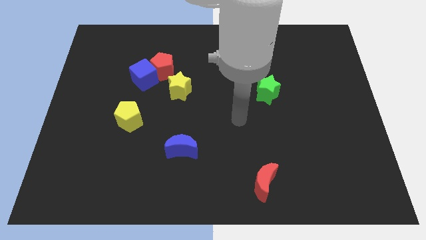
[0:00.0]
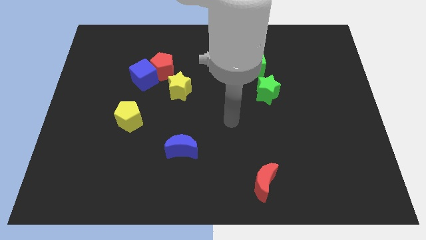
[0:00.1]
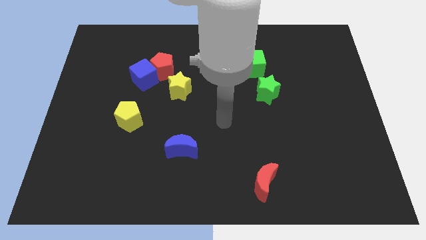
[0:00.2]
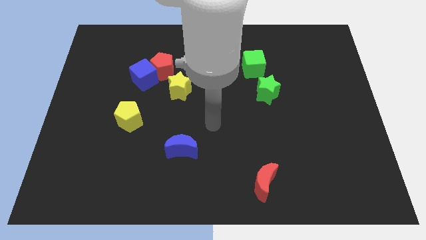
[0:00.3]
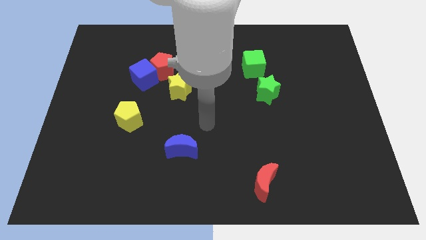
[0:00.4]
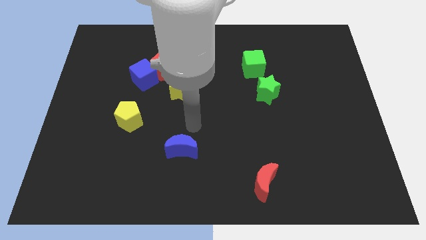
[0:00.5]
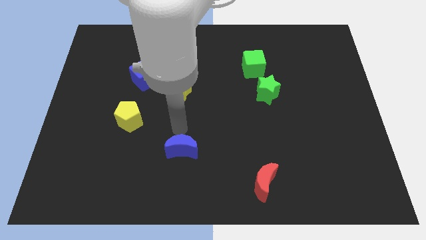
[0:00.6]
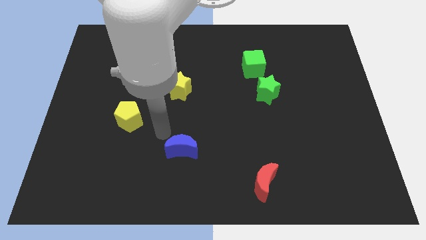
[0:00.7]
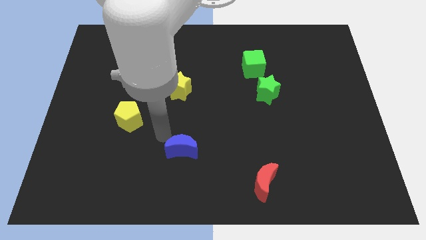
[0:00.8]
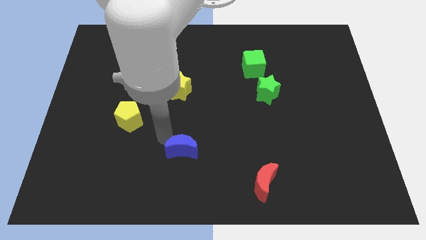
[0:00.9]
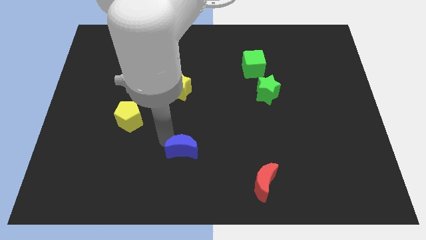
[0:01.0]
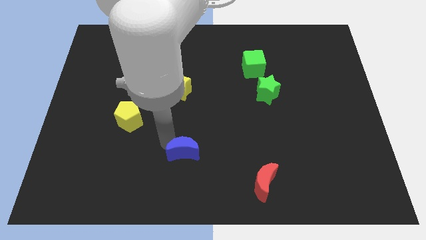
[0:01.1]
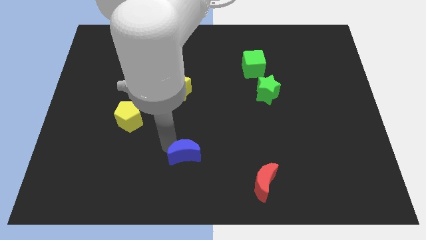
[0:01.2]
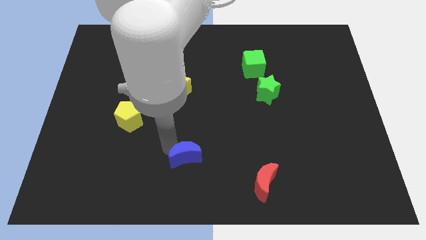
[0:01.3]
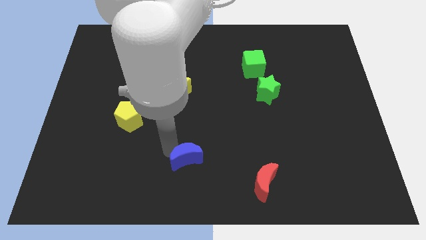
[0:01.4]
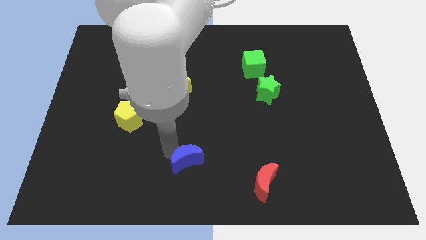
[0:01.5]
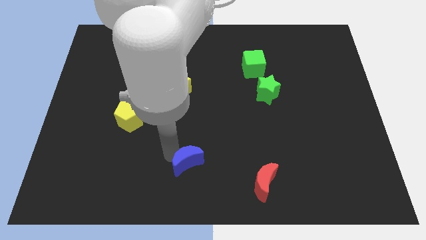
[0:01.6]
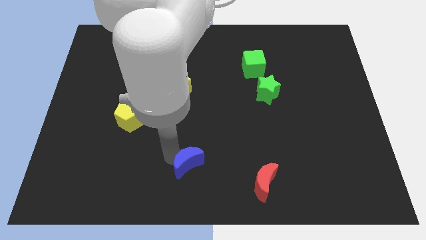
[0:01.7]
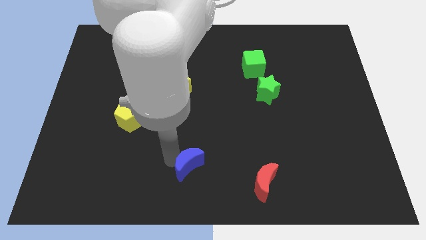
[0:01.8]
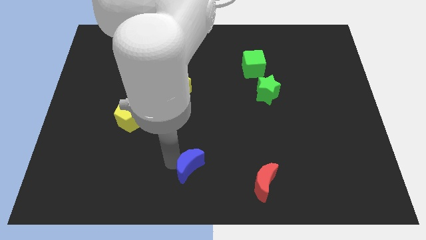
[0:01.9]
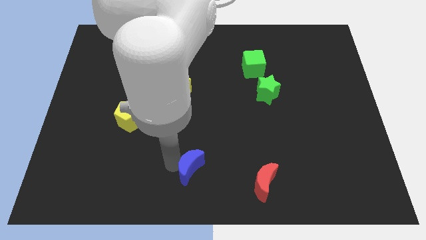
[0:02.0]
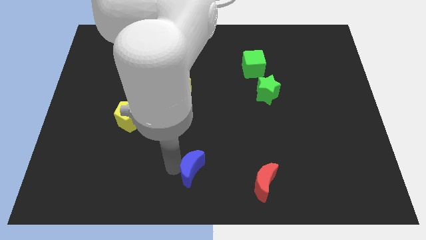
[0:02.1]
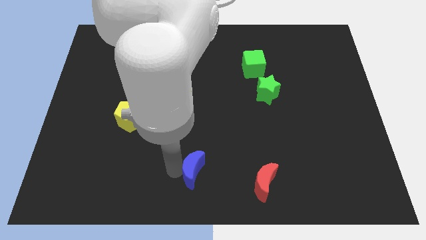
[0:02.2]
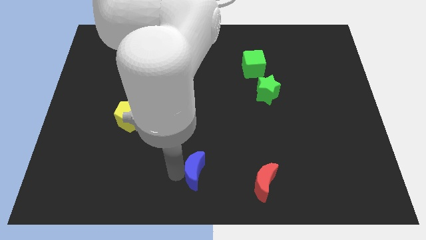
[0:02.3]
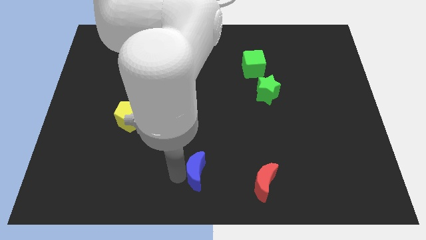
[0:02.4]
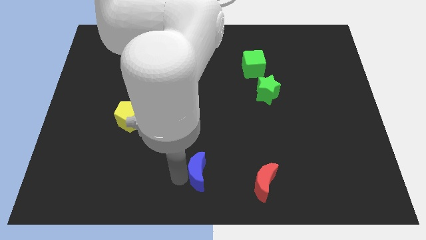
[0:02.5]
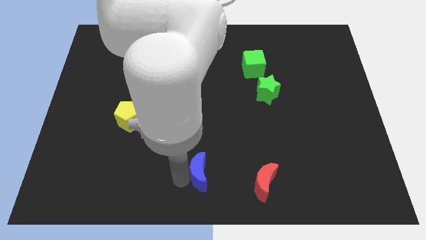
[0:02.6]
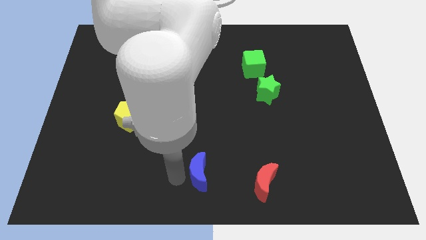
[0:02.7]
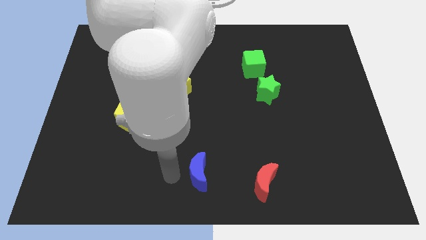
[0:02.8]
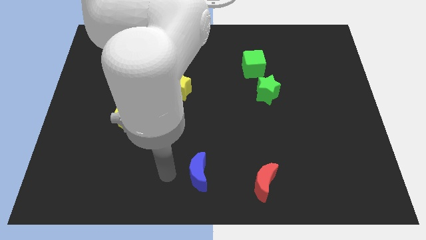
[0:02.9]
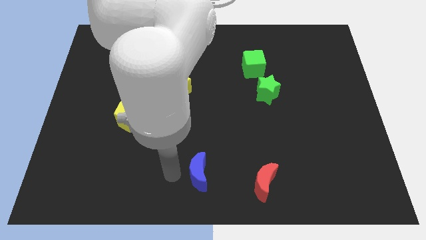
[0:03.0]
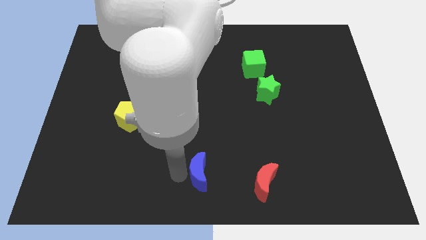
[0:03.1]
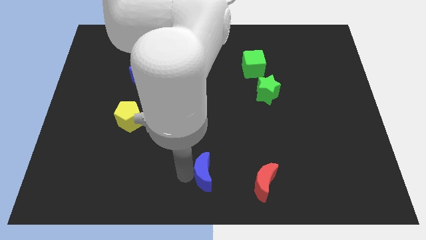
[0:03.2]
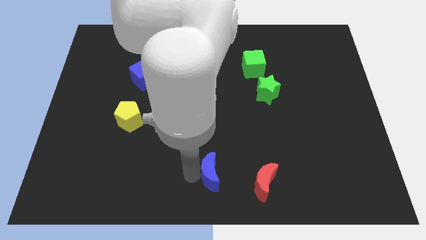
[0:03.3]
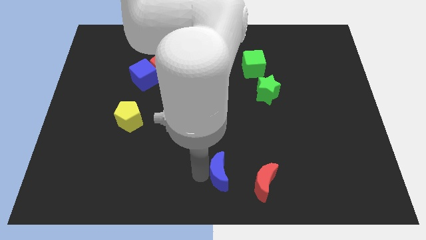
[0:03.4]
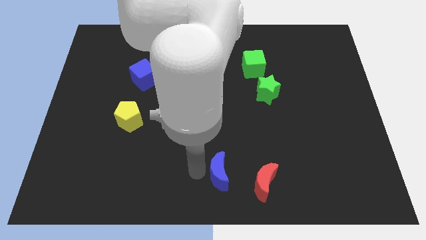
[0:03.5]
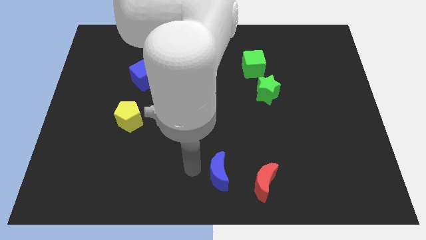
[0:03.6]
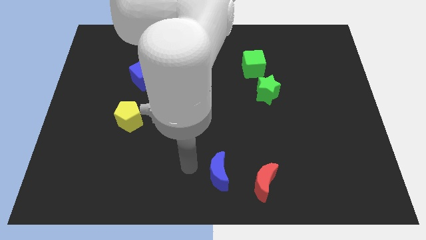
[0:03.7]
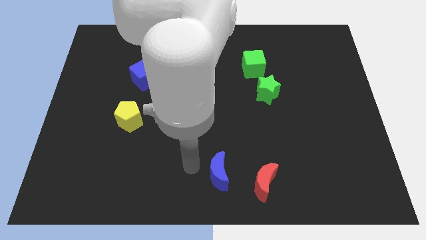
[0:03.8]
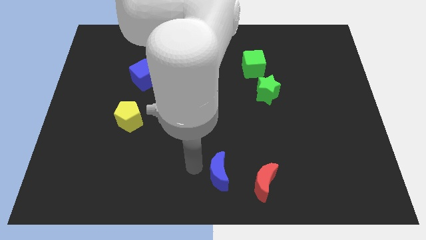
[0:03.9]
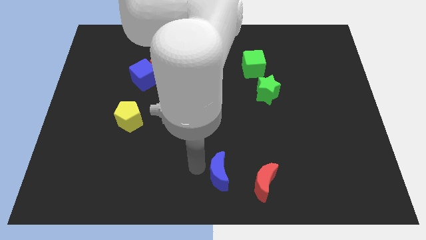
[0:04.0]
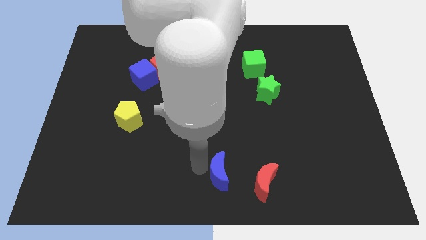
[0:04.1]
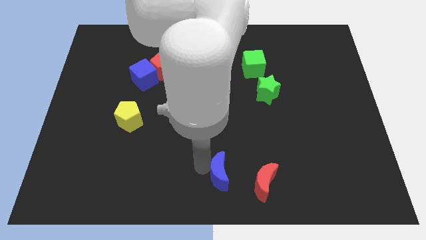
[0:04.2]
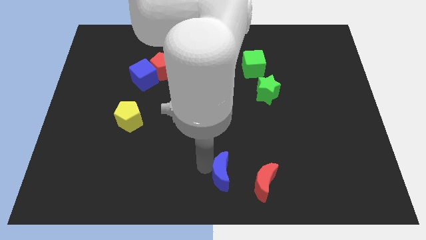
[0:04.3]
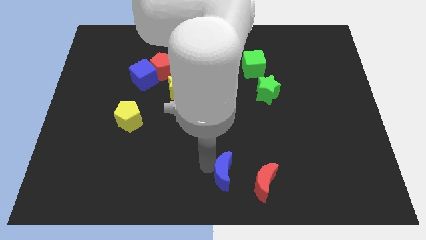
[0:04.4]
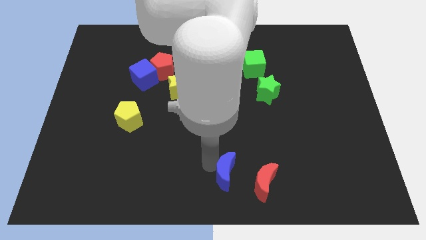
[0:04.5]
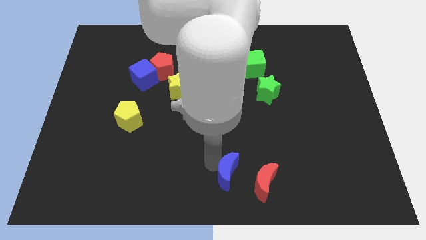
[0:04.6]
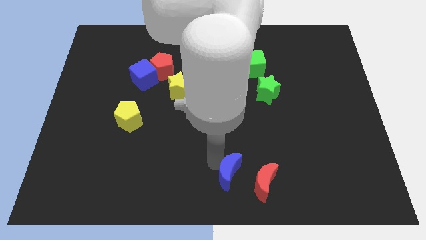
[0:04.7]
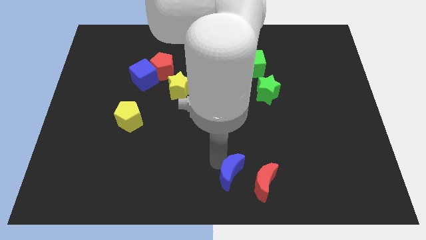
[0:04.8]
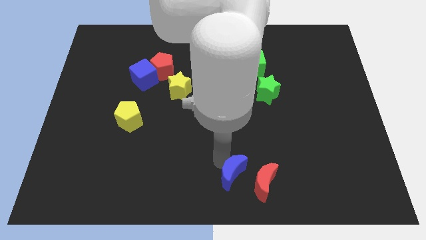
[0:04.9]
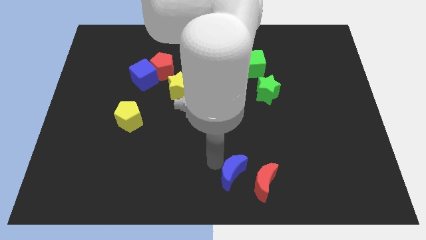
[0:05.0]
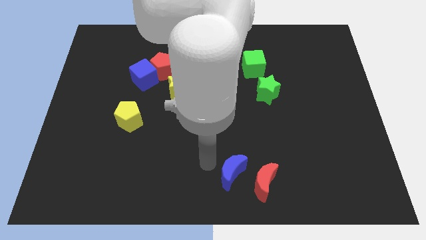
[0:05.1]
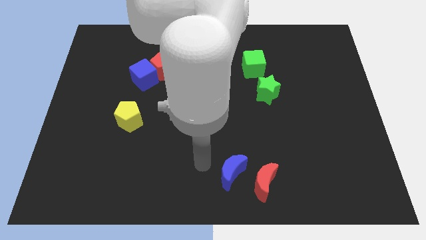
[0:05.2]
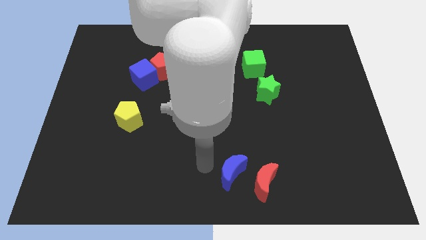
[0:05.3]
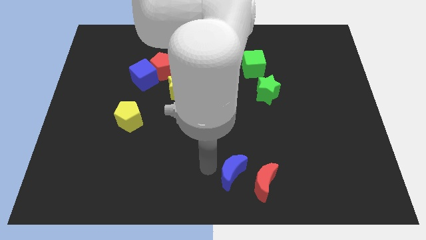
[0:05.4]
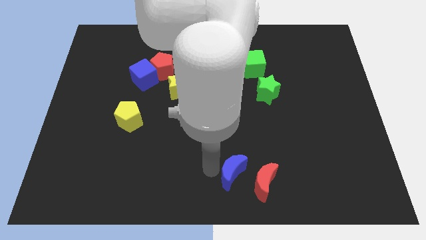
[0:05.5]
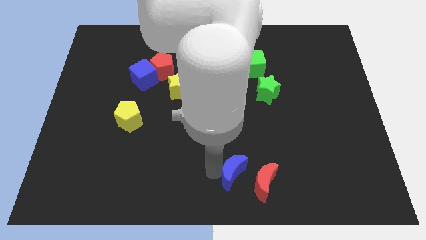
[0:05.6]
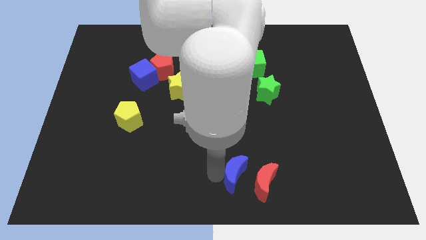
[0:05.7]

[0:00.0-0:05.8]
slide the blue moon to the red moon

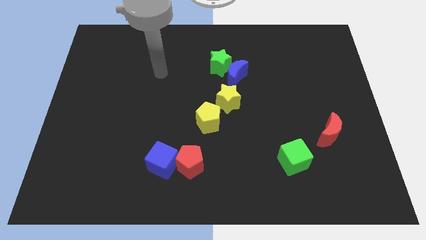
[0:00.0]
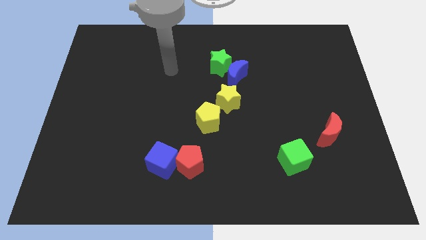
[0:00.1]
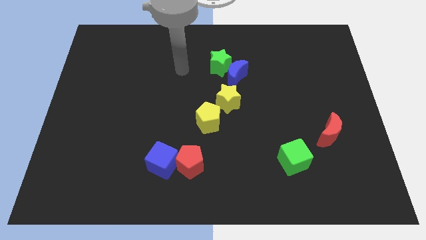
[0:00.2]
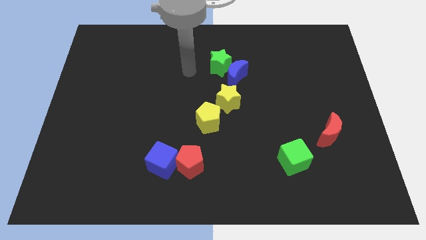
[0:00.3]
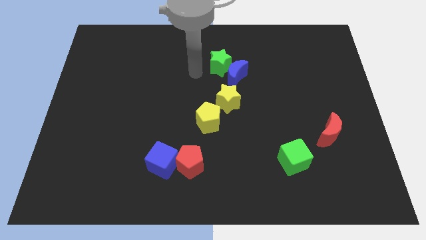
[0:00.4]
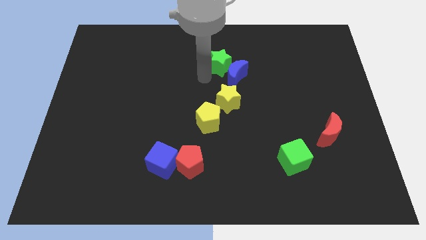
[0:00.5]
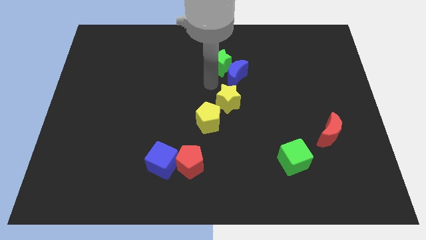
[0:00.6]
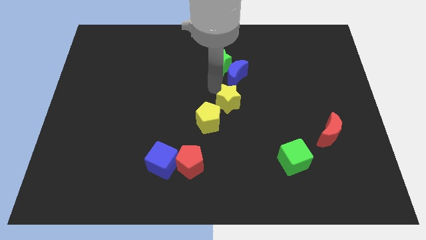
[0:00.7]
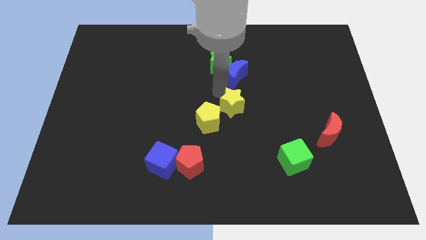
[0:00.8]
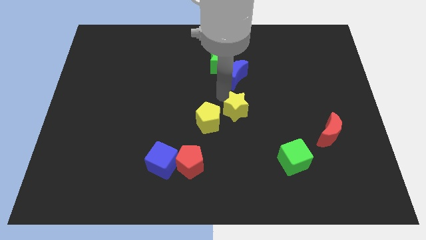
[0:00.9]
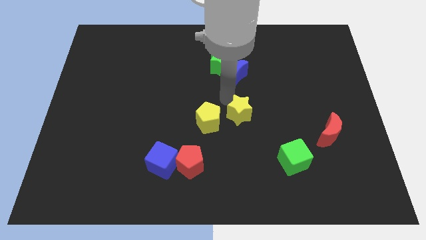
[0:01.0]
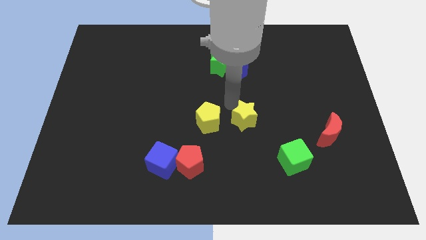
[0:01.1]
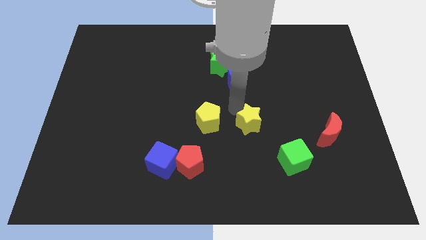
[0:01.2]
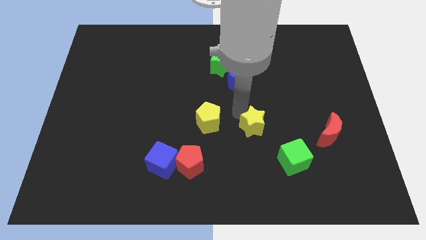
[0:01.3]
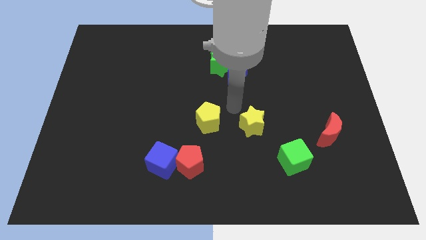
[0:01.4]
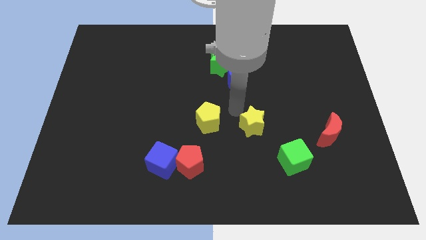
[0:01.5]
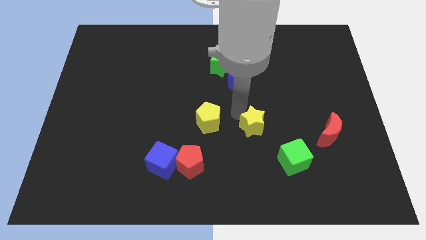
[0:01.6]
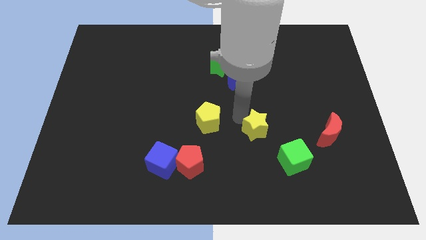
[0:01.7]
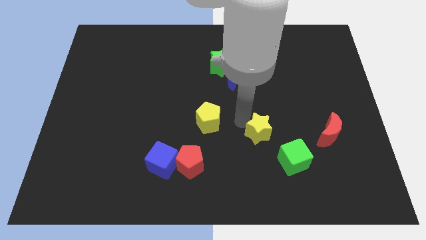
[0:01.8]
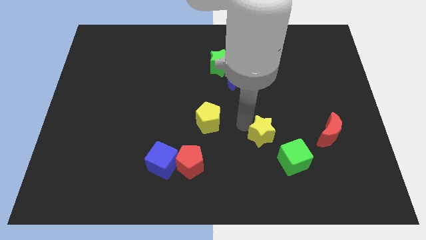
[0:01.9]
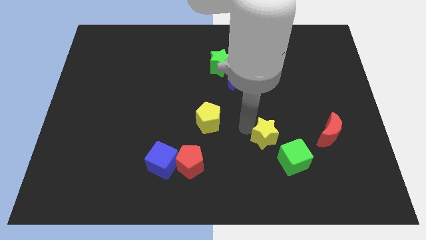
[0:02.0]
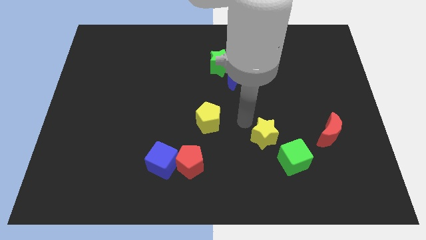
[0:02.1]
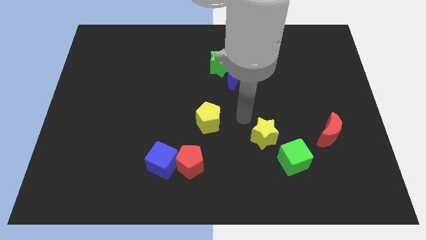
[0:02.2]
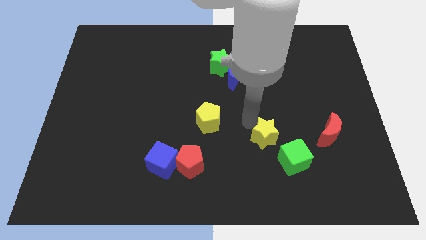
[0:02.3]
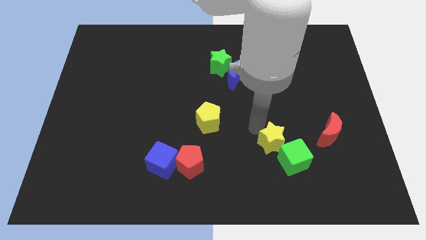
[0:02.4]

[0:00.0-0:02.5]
move the yellow star to the green cube
